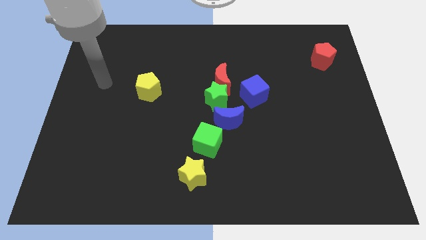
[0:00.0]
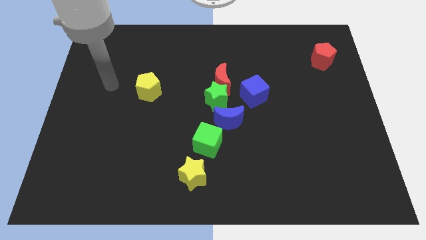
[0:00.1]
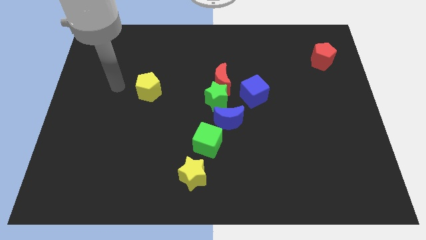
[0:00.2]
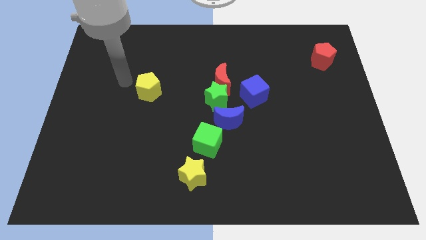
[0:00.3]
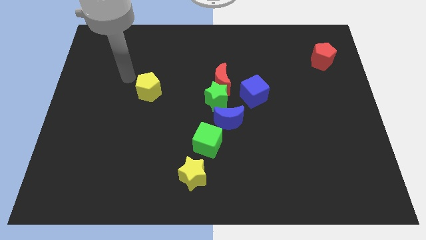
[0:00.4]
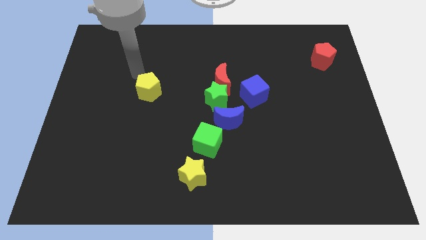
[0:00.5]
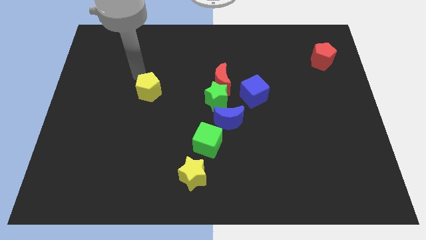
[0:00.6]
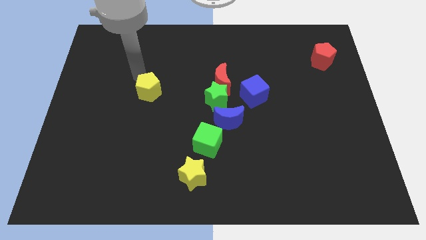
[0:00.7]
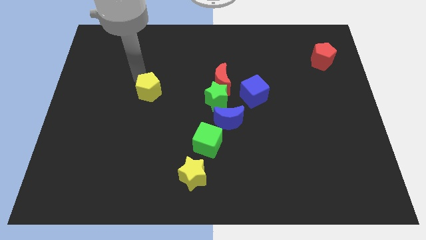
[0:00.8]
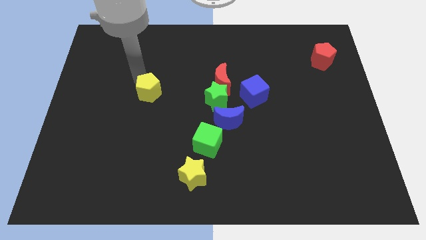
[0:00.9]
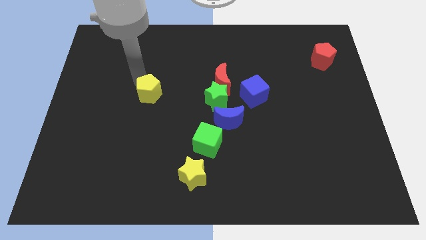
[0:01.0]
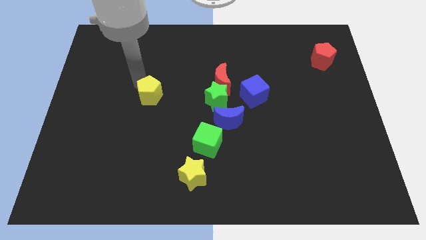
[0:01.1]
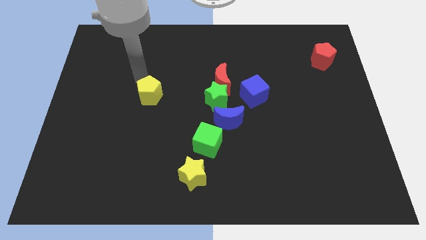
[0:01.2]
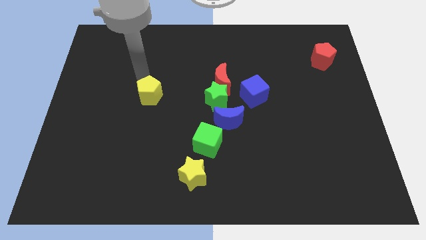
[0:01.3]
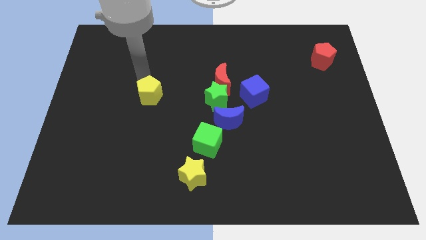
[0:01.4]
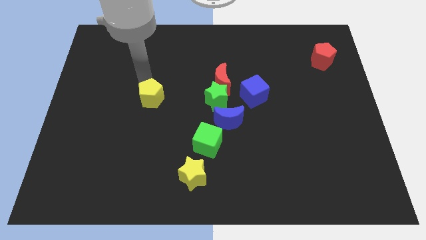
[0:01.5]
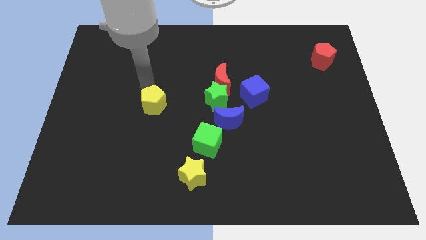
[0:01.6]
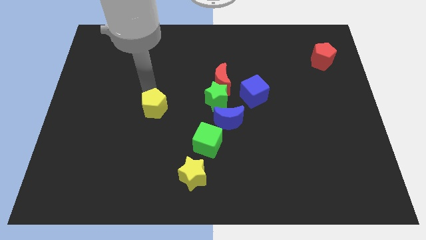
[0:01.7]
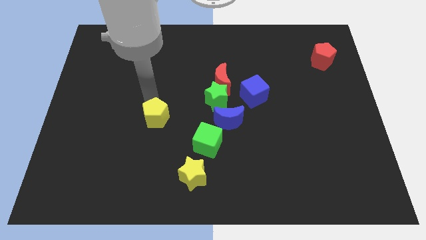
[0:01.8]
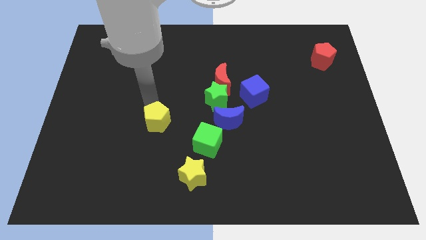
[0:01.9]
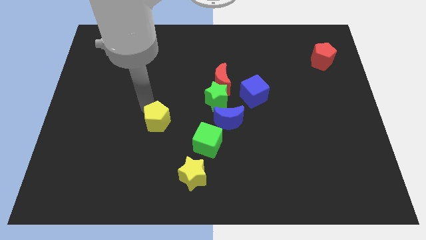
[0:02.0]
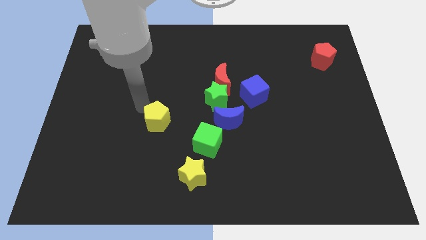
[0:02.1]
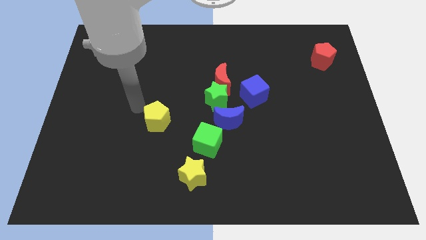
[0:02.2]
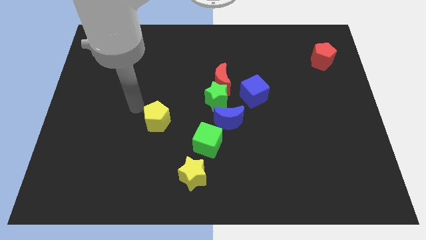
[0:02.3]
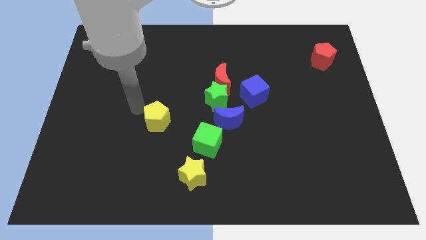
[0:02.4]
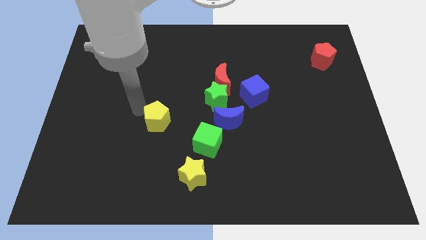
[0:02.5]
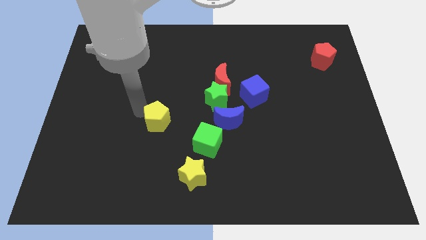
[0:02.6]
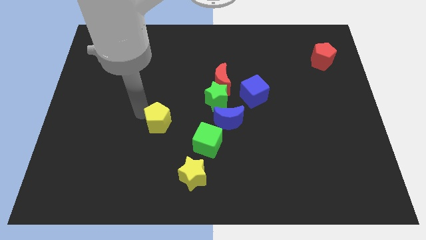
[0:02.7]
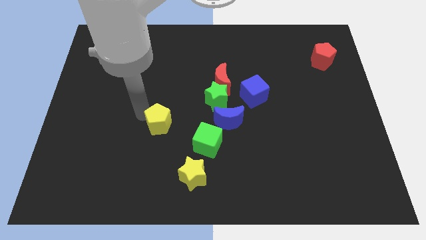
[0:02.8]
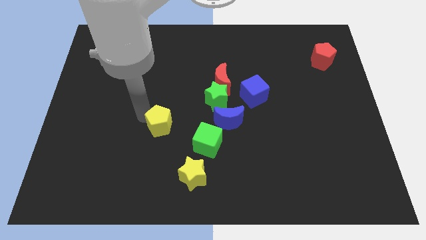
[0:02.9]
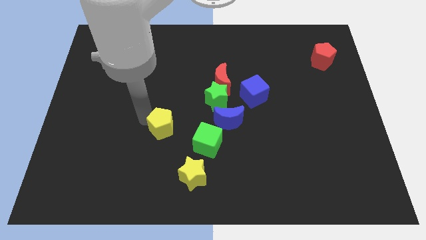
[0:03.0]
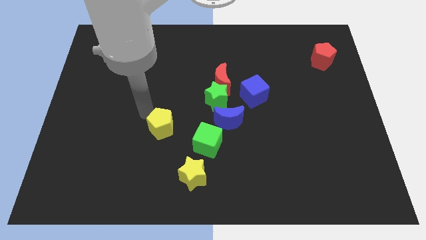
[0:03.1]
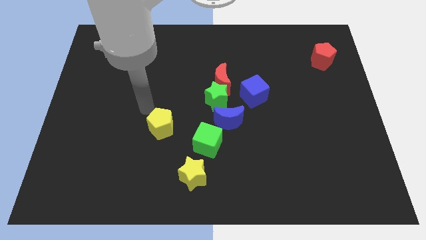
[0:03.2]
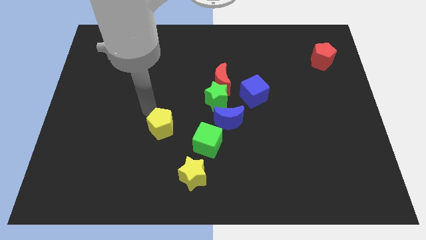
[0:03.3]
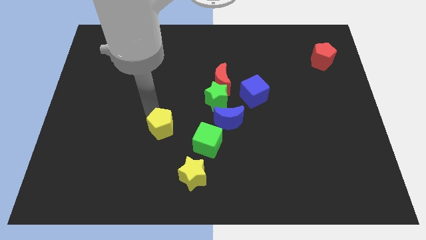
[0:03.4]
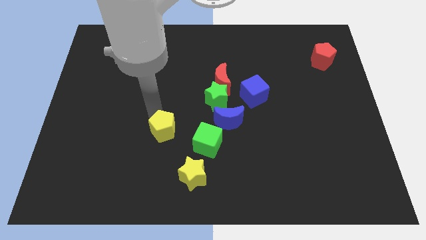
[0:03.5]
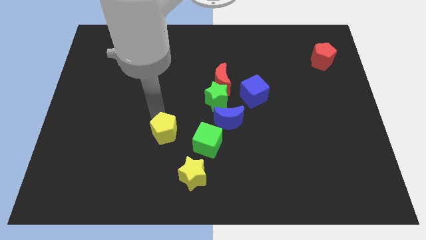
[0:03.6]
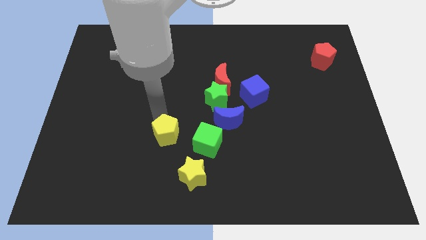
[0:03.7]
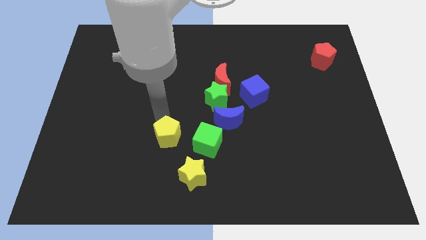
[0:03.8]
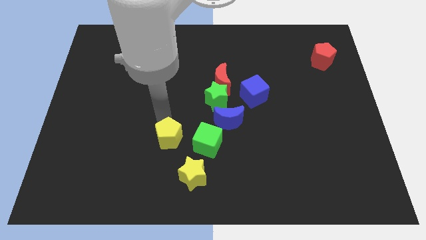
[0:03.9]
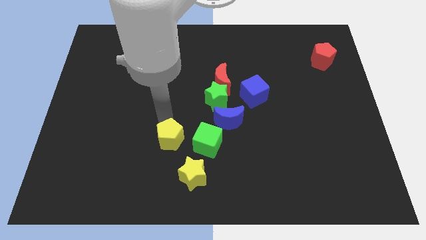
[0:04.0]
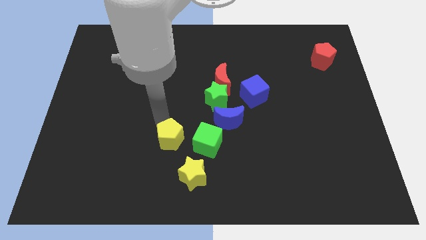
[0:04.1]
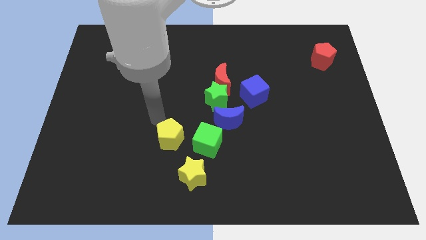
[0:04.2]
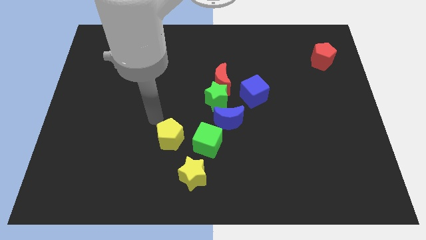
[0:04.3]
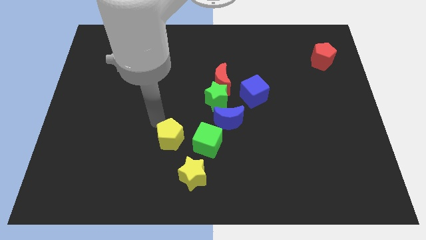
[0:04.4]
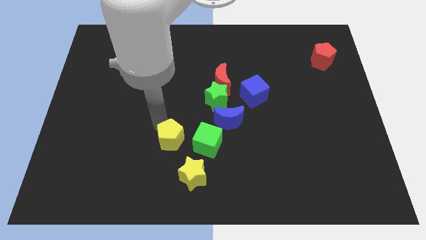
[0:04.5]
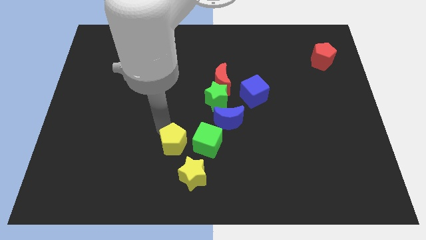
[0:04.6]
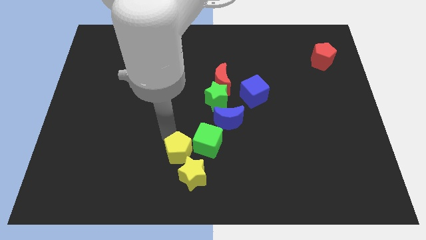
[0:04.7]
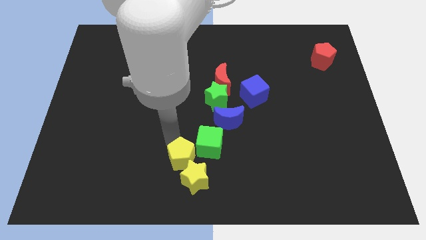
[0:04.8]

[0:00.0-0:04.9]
push the yellow pentagon close to the yellow star

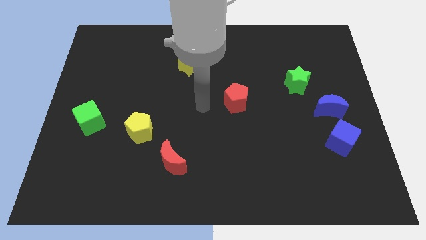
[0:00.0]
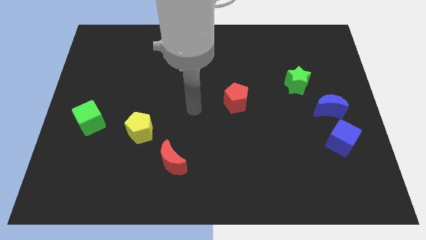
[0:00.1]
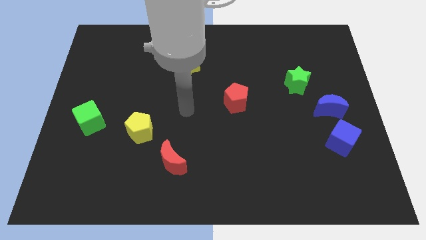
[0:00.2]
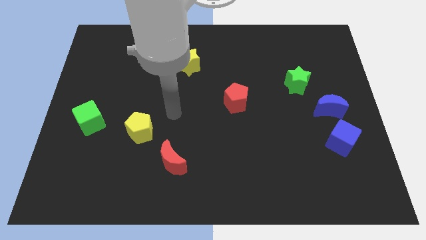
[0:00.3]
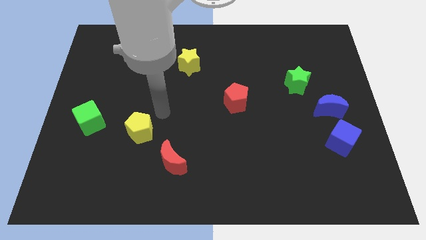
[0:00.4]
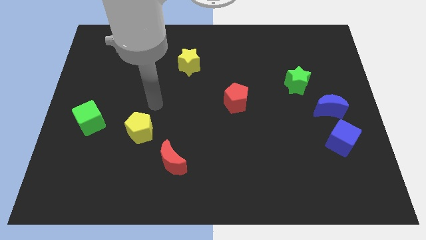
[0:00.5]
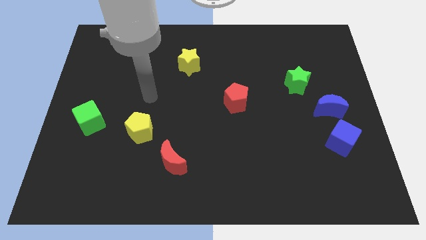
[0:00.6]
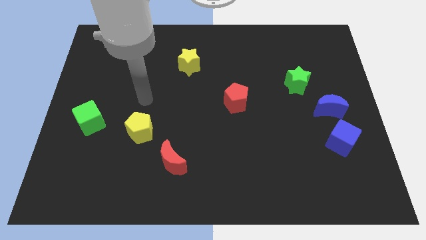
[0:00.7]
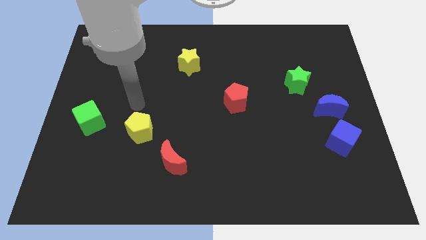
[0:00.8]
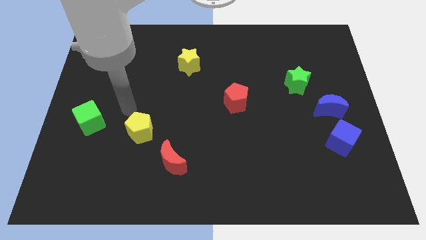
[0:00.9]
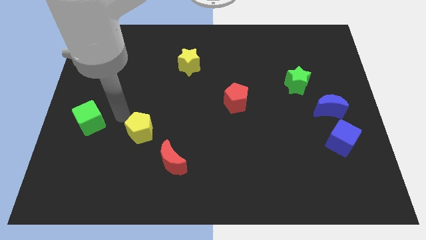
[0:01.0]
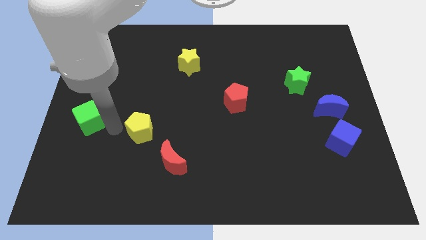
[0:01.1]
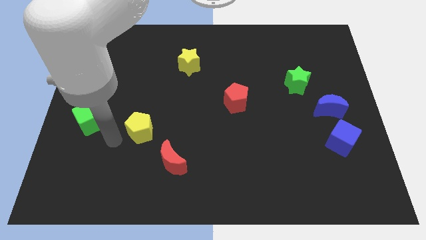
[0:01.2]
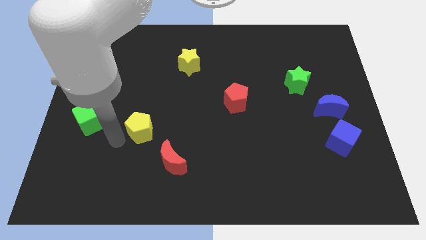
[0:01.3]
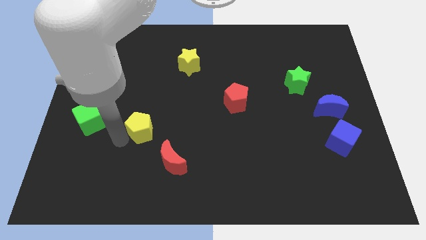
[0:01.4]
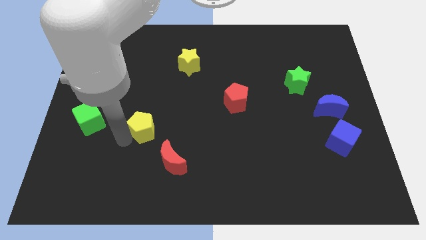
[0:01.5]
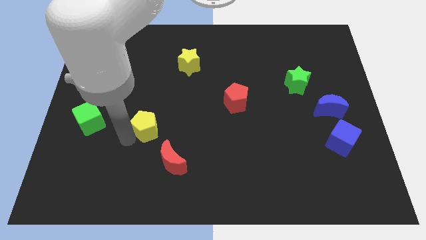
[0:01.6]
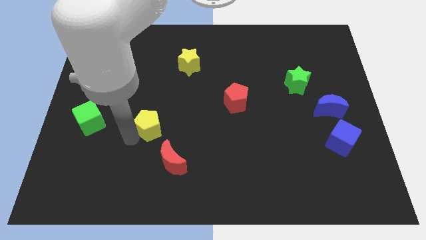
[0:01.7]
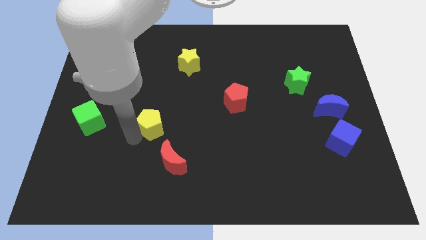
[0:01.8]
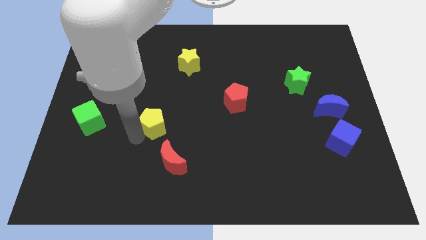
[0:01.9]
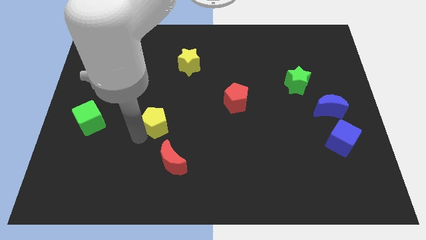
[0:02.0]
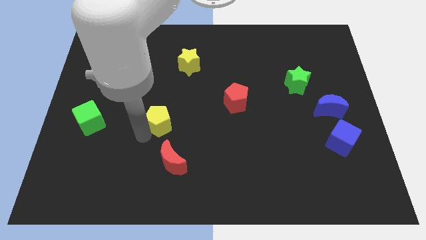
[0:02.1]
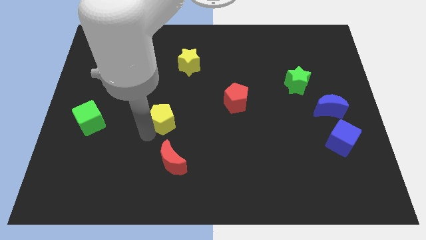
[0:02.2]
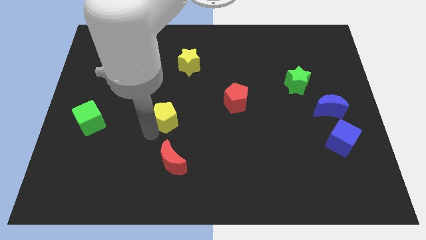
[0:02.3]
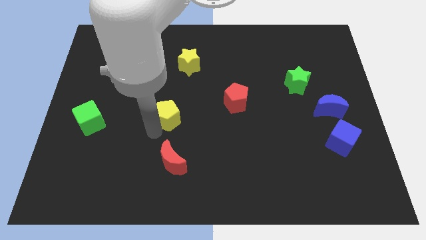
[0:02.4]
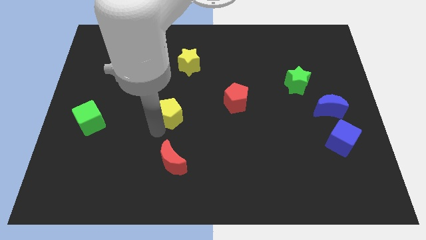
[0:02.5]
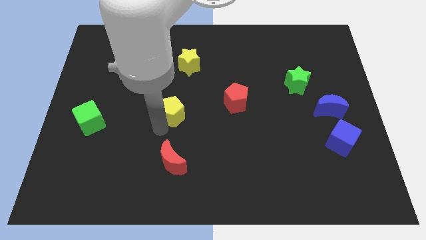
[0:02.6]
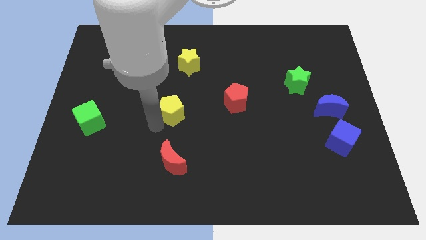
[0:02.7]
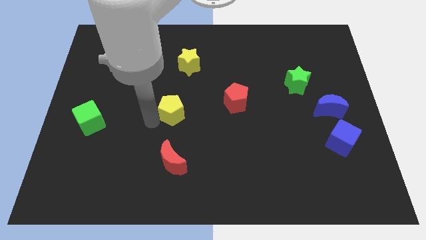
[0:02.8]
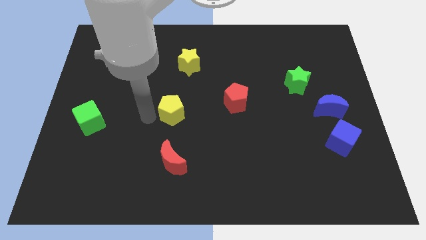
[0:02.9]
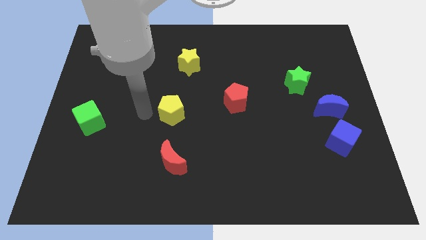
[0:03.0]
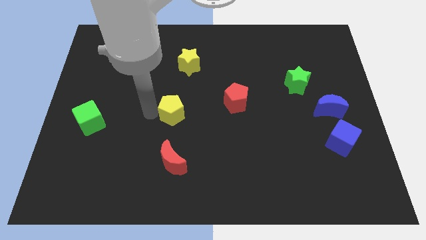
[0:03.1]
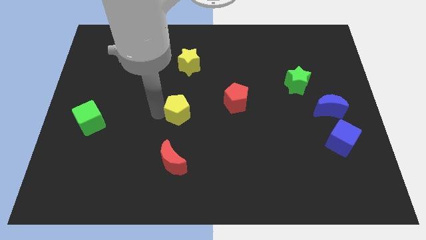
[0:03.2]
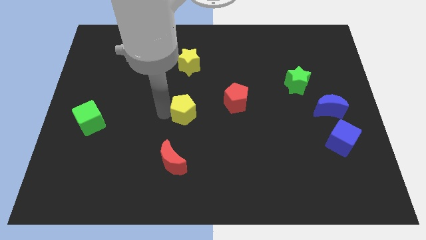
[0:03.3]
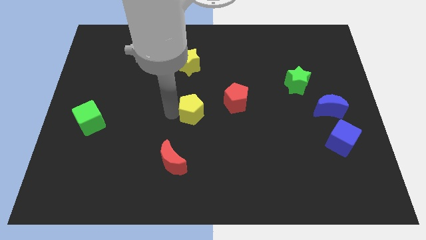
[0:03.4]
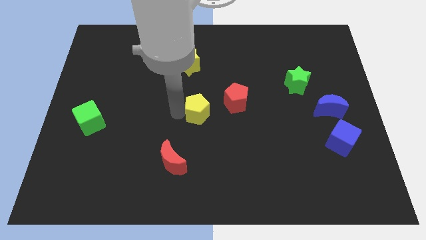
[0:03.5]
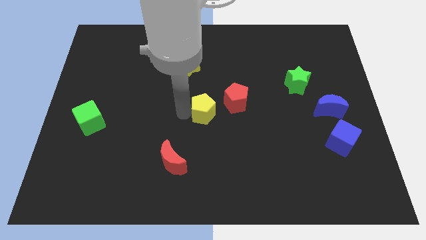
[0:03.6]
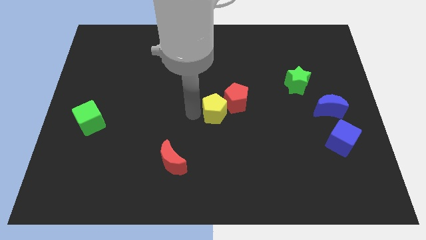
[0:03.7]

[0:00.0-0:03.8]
put the yellow pentagon next to the red pentagon
